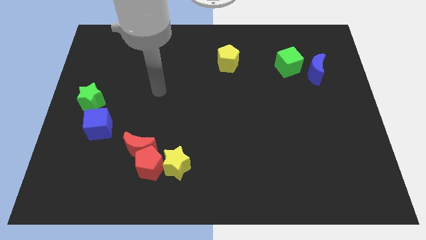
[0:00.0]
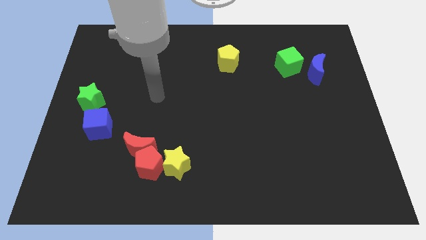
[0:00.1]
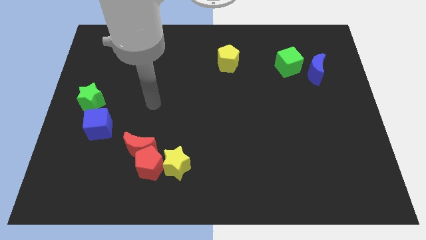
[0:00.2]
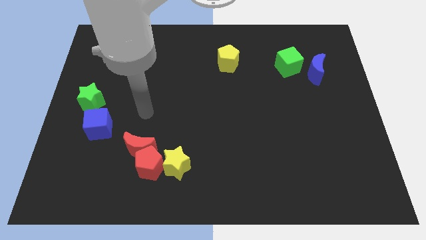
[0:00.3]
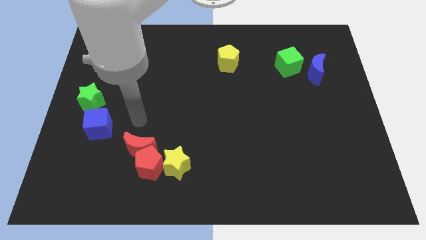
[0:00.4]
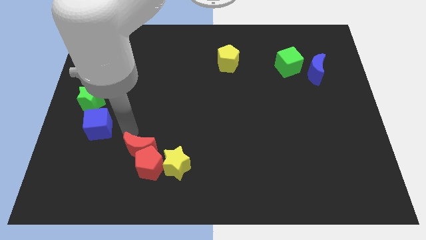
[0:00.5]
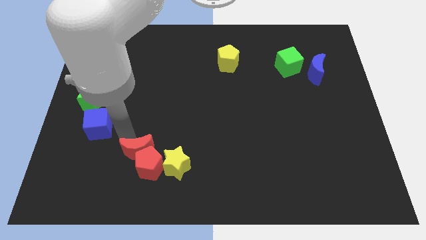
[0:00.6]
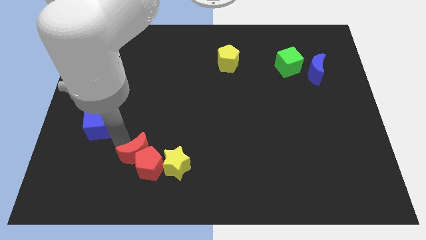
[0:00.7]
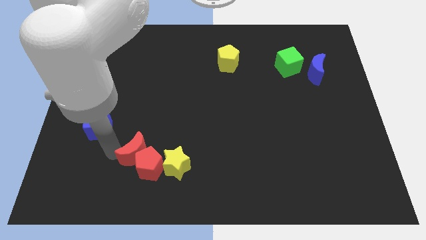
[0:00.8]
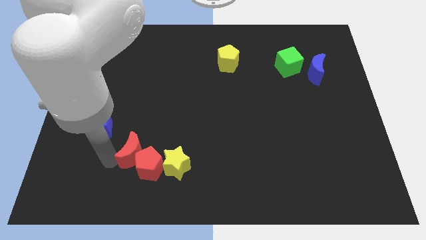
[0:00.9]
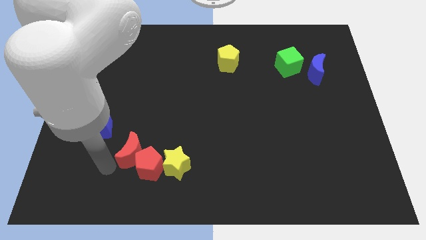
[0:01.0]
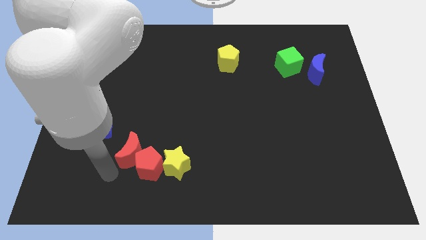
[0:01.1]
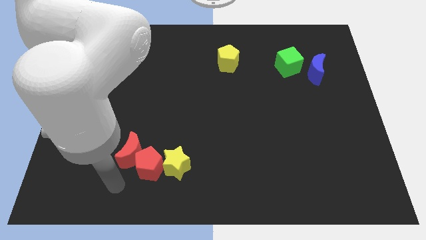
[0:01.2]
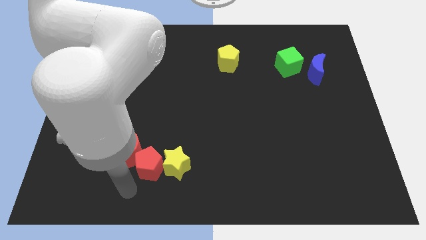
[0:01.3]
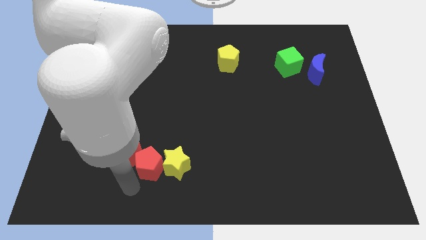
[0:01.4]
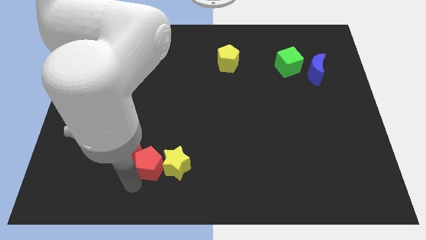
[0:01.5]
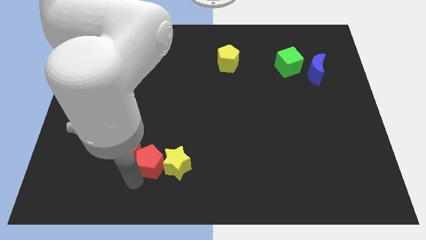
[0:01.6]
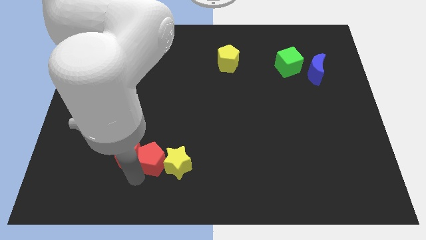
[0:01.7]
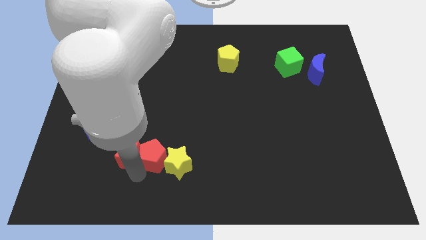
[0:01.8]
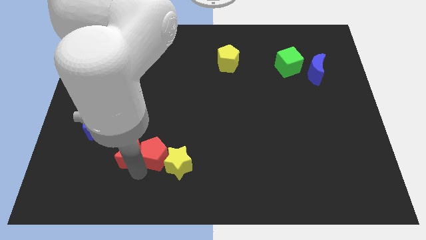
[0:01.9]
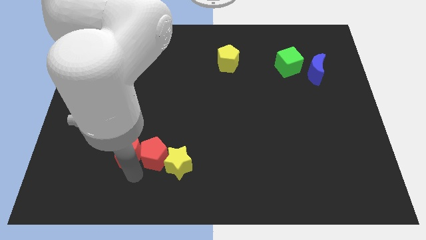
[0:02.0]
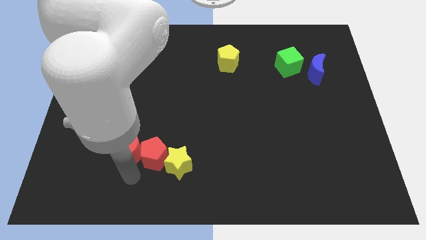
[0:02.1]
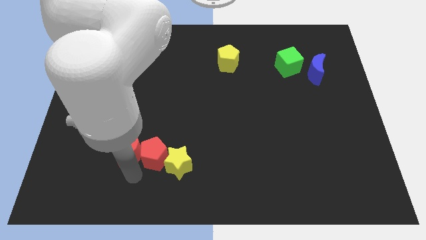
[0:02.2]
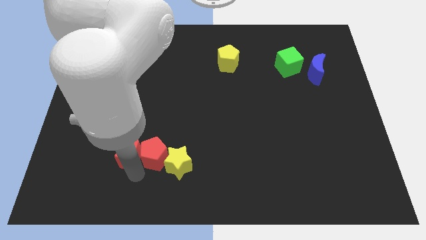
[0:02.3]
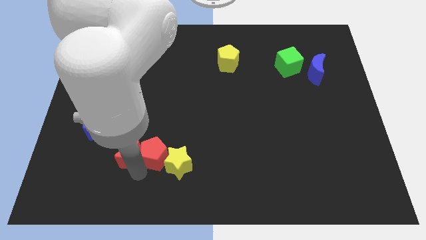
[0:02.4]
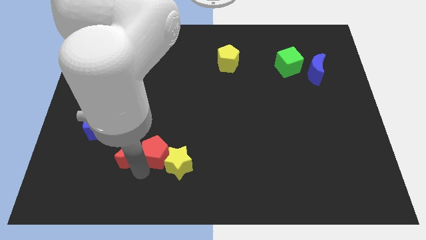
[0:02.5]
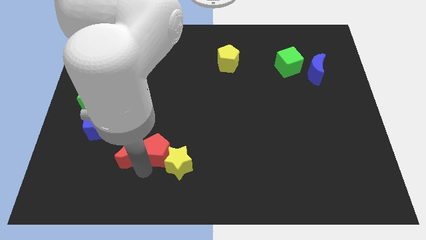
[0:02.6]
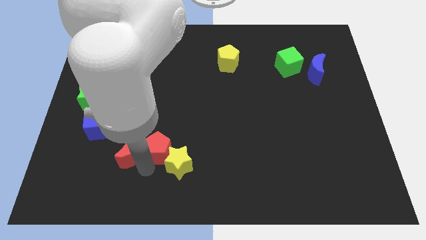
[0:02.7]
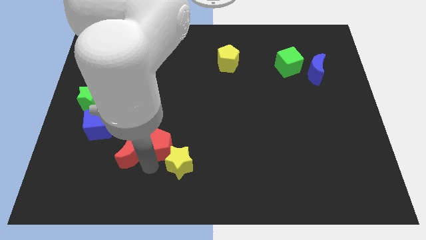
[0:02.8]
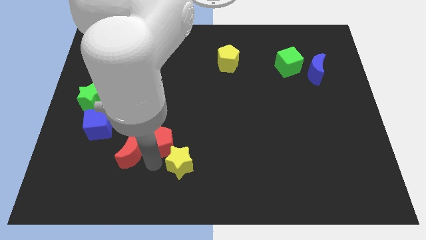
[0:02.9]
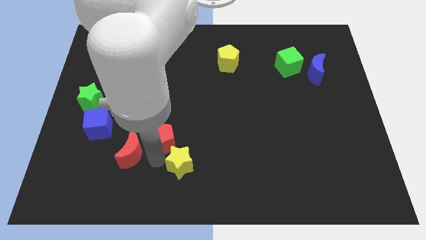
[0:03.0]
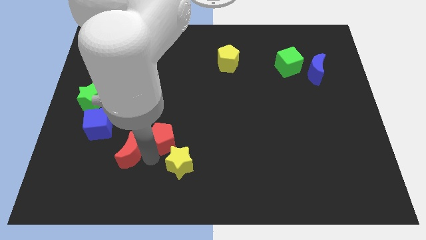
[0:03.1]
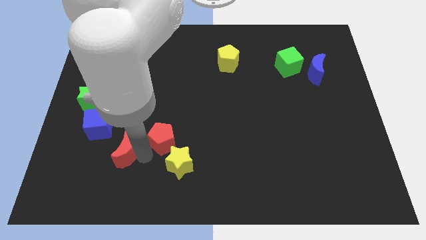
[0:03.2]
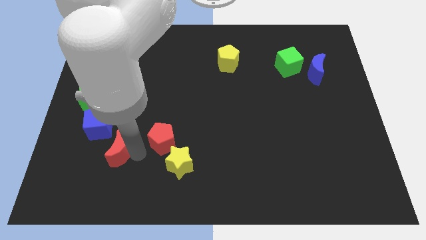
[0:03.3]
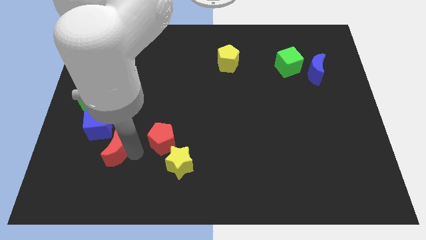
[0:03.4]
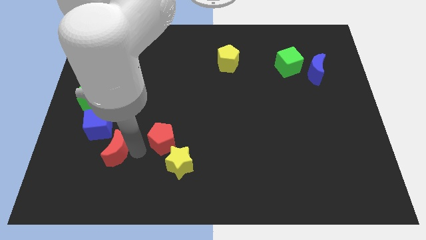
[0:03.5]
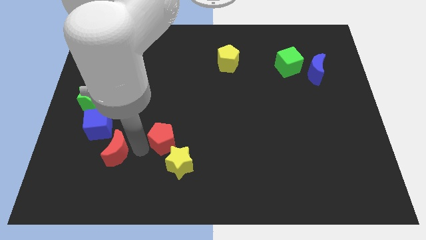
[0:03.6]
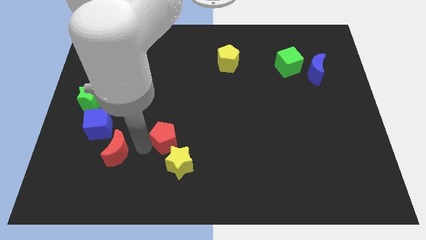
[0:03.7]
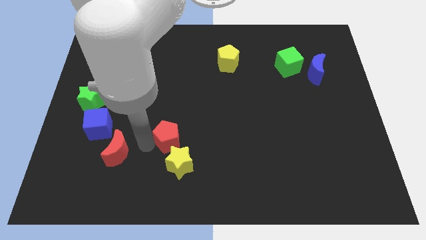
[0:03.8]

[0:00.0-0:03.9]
move the red pentagon up and then right a little

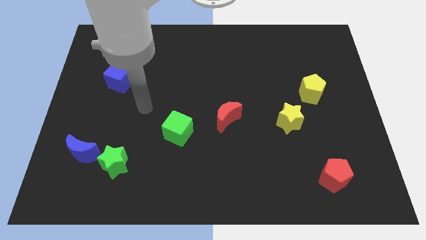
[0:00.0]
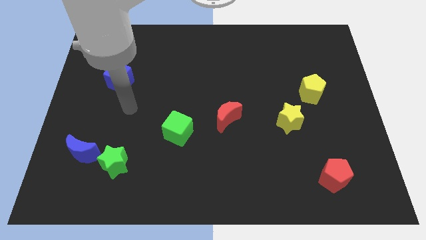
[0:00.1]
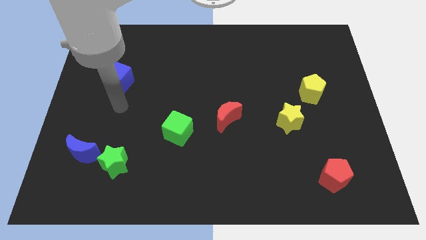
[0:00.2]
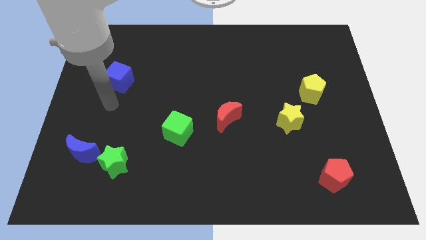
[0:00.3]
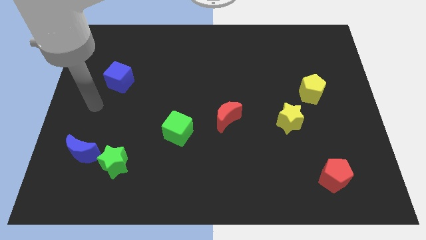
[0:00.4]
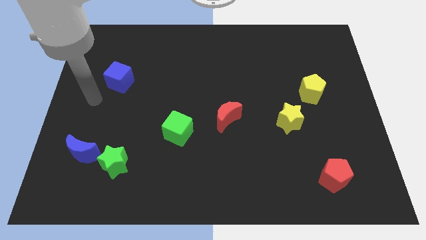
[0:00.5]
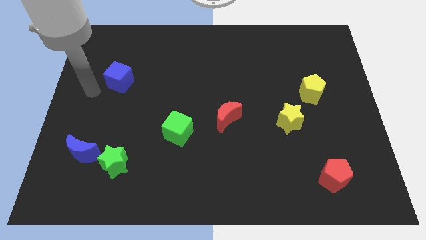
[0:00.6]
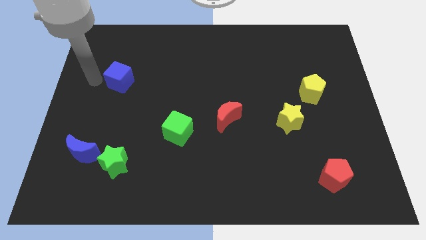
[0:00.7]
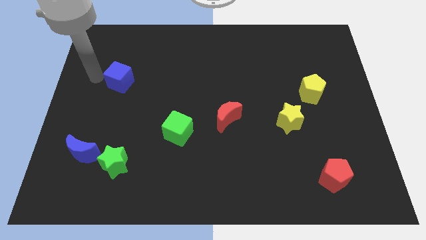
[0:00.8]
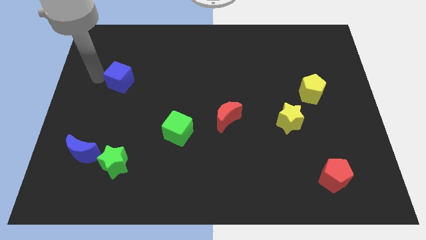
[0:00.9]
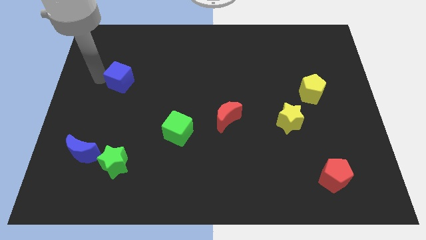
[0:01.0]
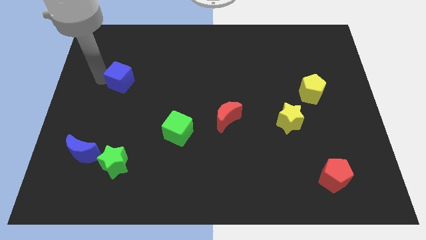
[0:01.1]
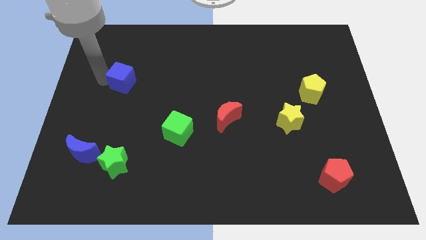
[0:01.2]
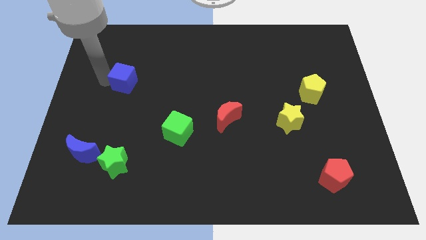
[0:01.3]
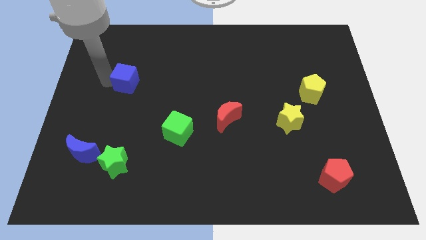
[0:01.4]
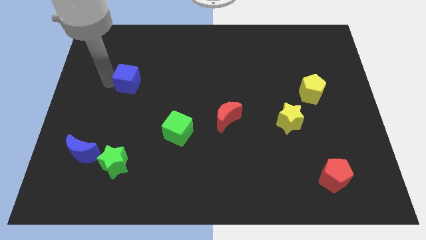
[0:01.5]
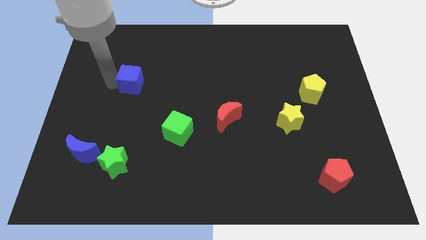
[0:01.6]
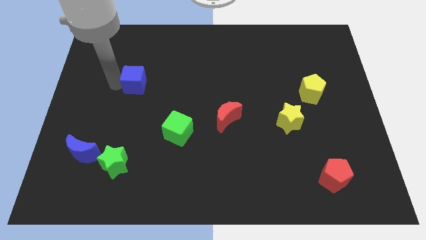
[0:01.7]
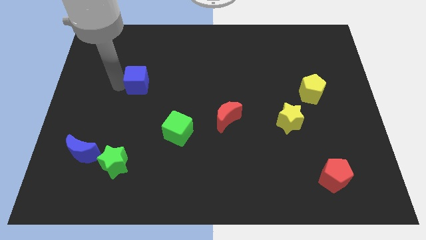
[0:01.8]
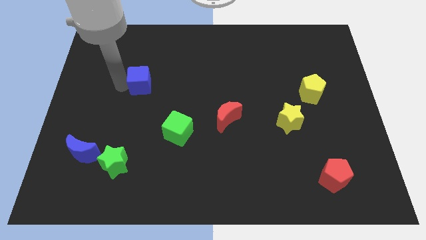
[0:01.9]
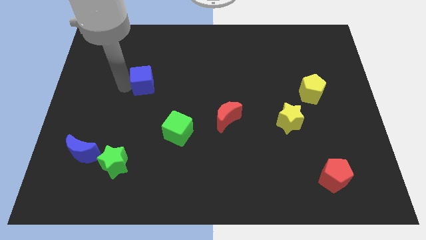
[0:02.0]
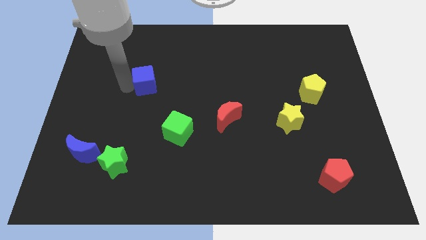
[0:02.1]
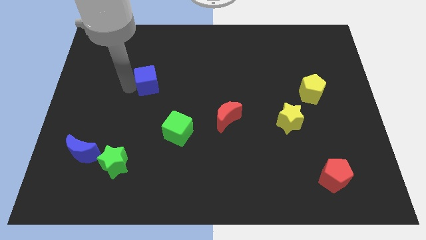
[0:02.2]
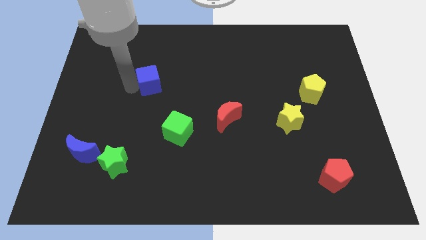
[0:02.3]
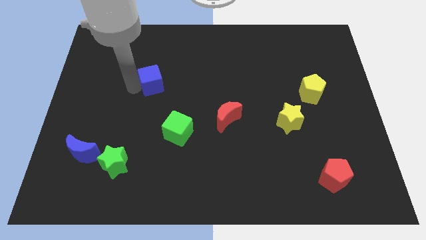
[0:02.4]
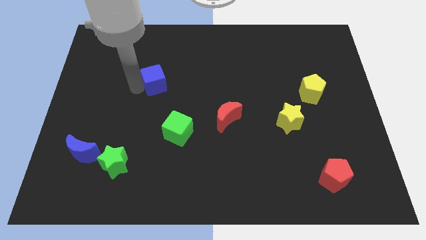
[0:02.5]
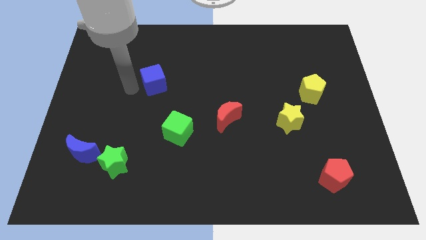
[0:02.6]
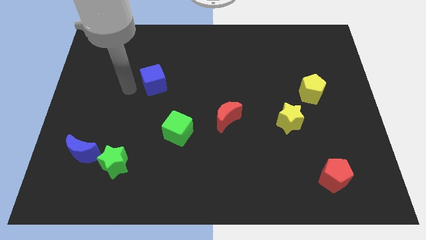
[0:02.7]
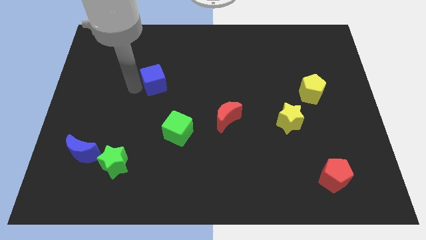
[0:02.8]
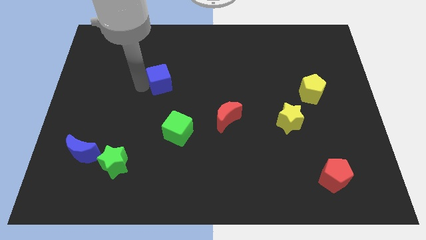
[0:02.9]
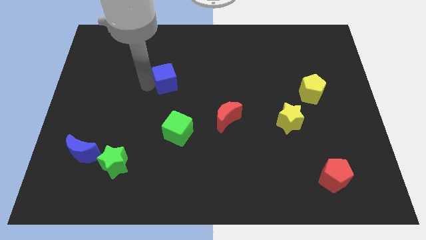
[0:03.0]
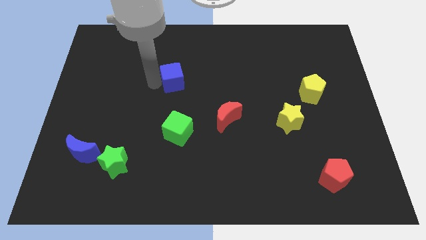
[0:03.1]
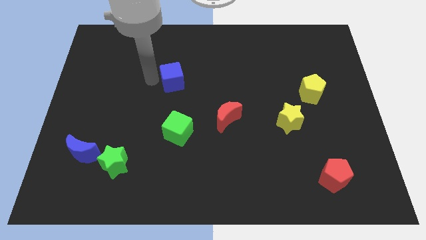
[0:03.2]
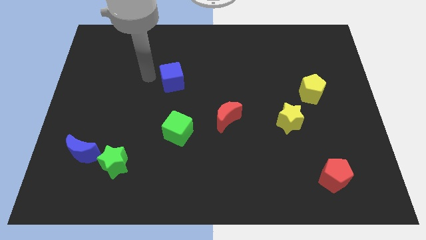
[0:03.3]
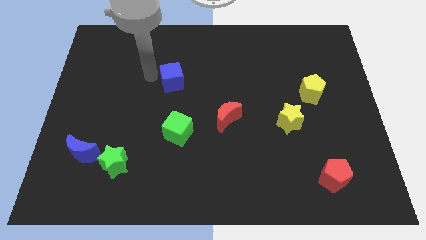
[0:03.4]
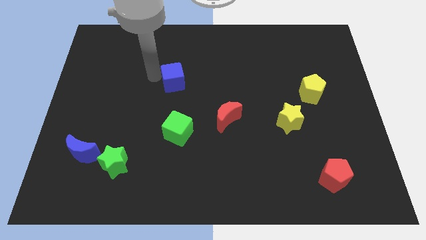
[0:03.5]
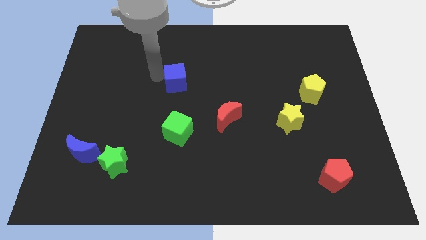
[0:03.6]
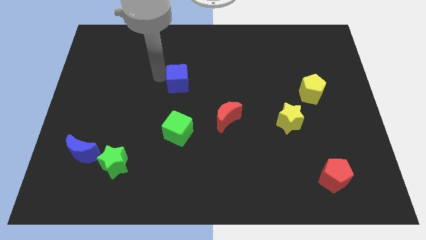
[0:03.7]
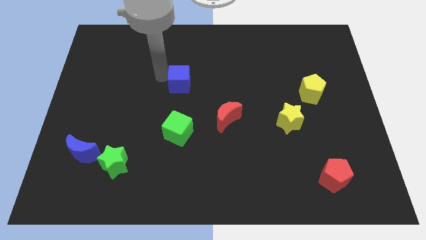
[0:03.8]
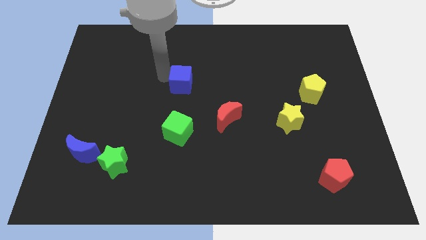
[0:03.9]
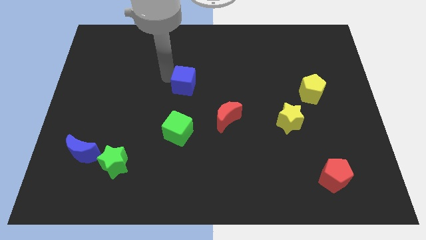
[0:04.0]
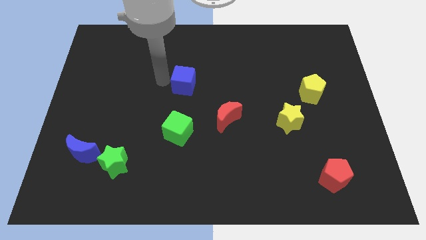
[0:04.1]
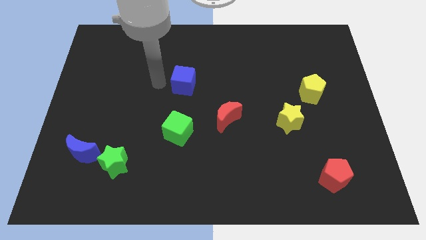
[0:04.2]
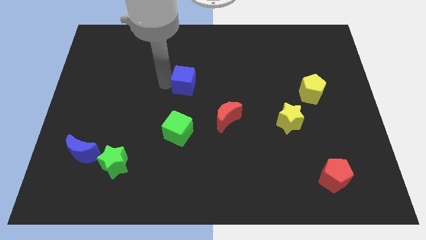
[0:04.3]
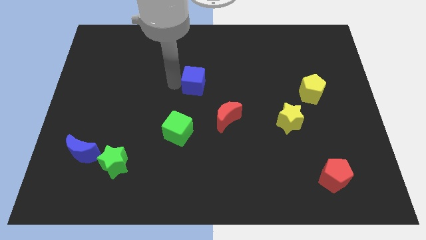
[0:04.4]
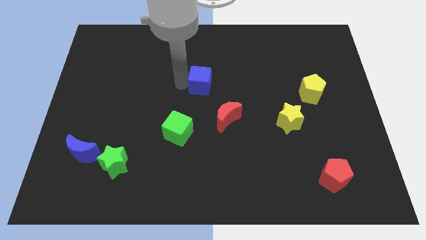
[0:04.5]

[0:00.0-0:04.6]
slide the blue cube to the right
